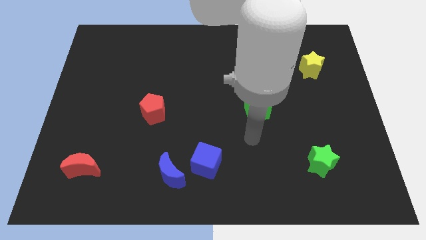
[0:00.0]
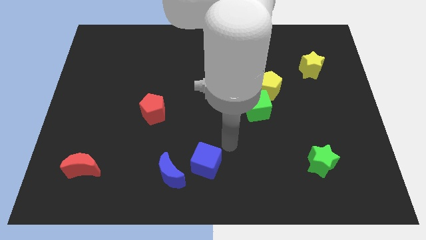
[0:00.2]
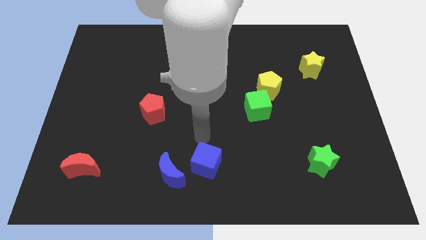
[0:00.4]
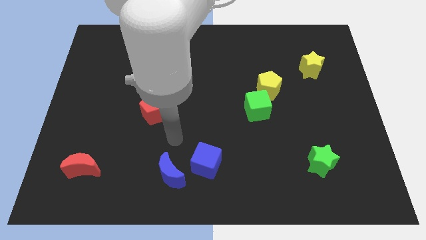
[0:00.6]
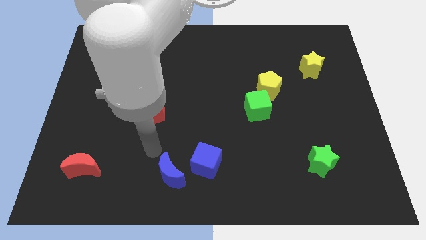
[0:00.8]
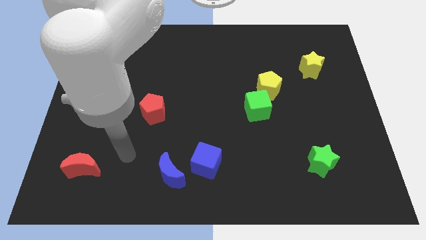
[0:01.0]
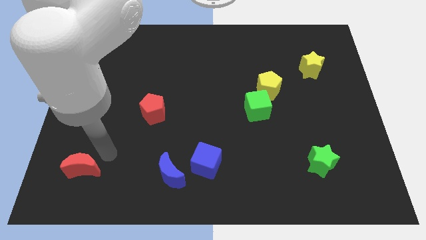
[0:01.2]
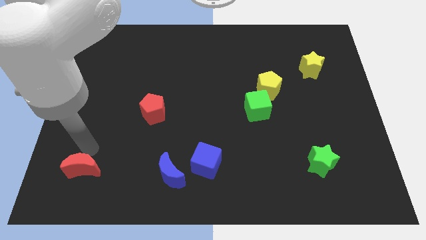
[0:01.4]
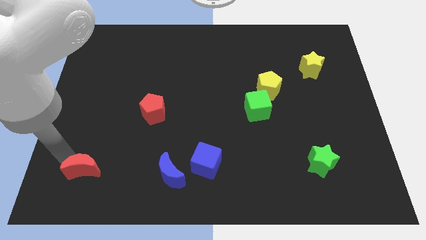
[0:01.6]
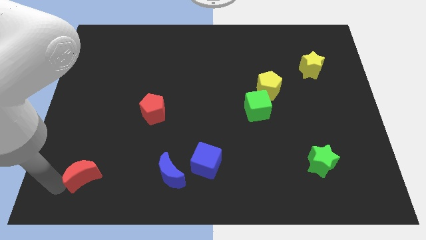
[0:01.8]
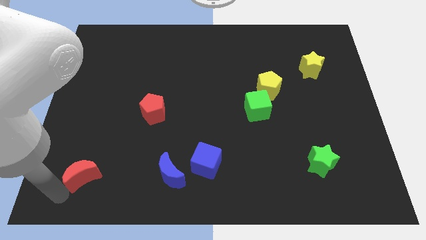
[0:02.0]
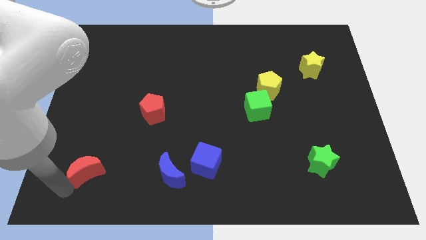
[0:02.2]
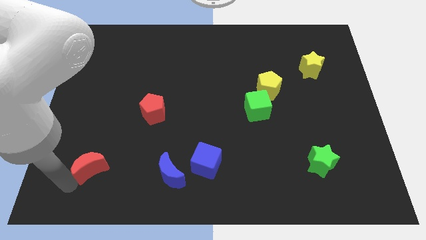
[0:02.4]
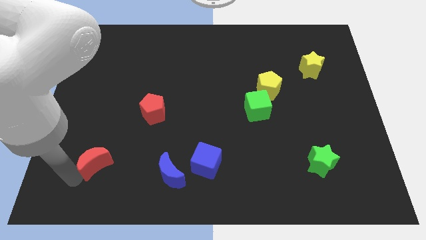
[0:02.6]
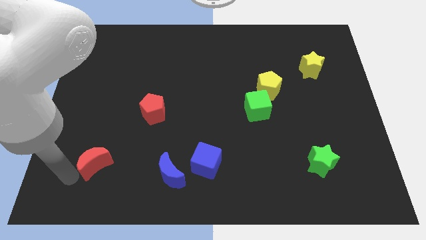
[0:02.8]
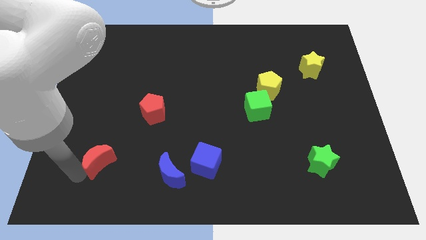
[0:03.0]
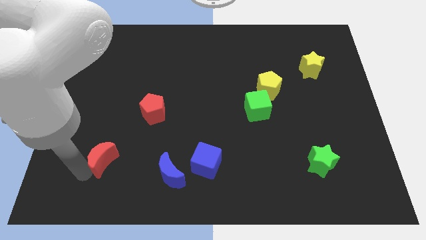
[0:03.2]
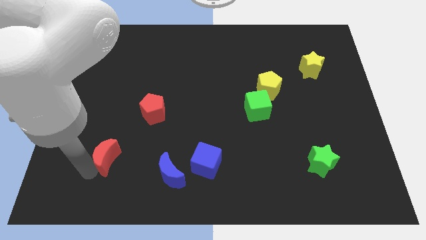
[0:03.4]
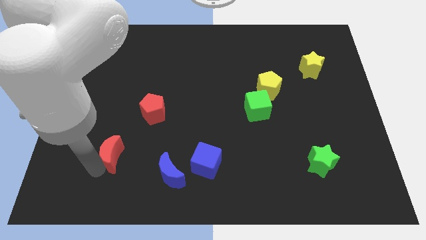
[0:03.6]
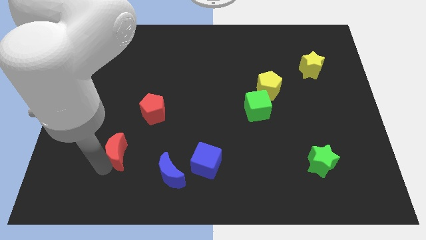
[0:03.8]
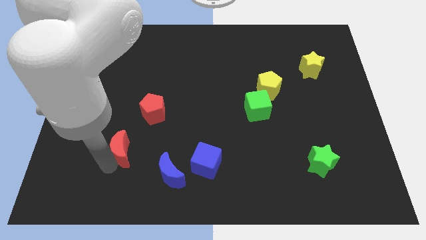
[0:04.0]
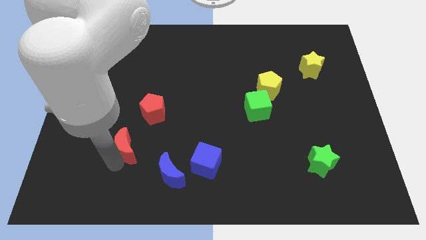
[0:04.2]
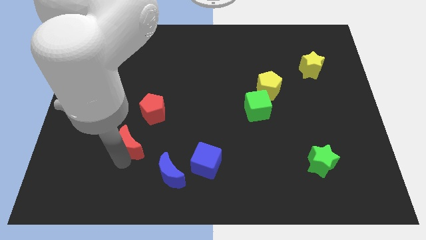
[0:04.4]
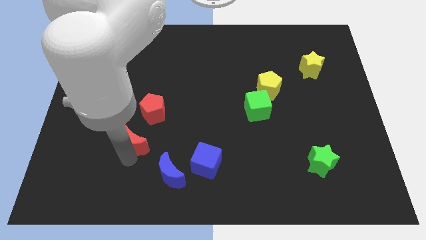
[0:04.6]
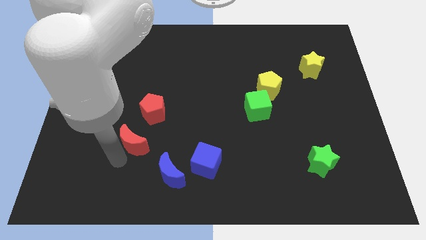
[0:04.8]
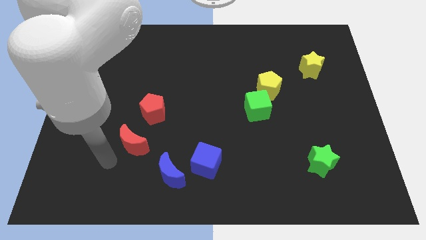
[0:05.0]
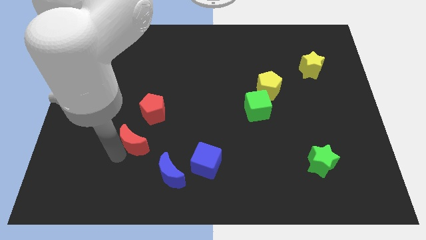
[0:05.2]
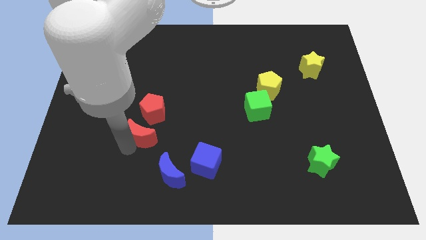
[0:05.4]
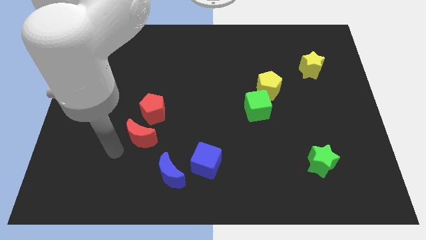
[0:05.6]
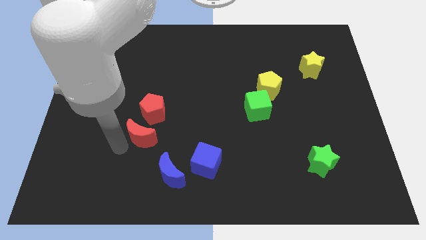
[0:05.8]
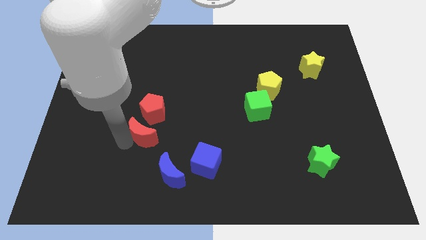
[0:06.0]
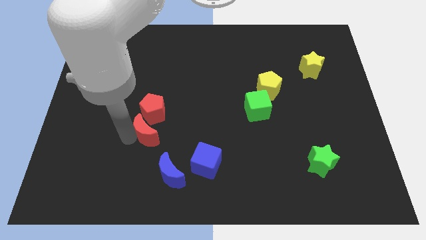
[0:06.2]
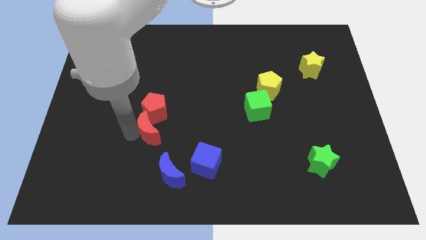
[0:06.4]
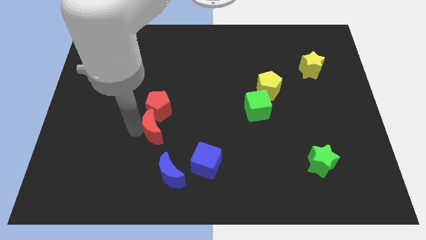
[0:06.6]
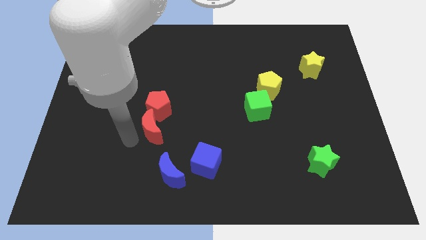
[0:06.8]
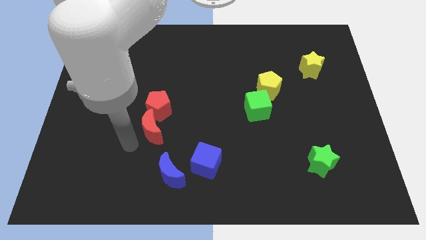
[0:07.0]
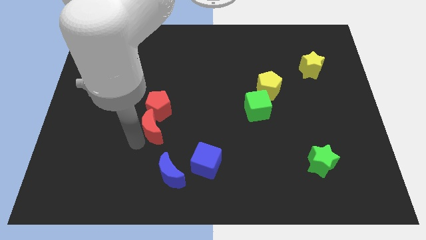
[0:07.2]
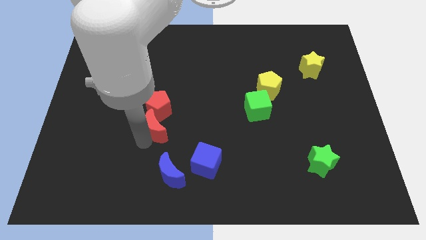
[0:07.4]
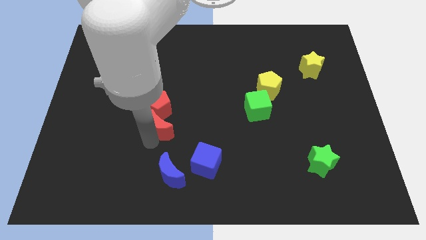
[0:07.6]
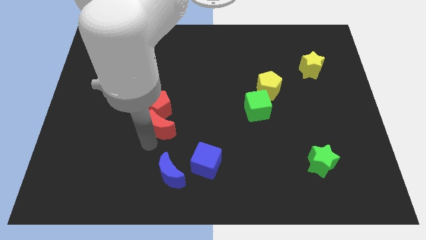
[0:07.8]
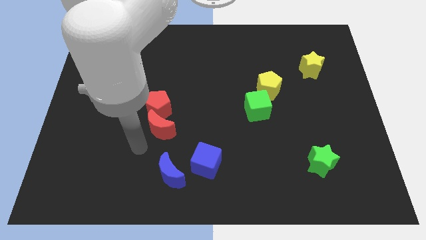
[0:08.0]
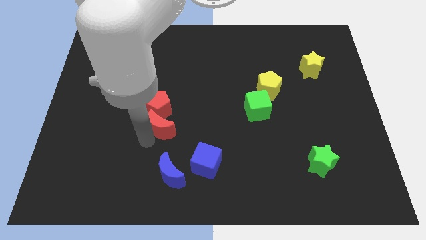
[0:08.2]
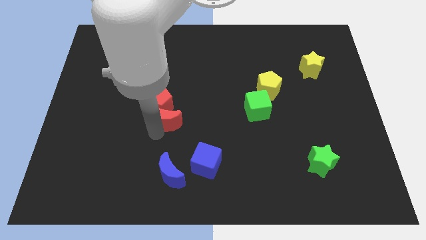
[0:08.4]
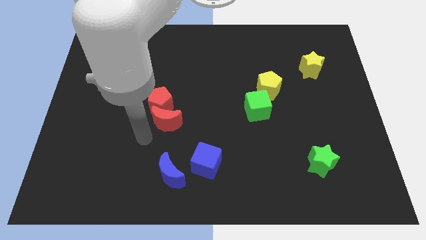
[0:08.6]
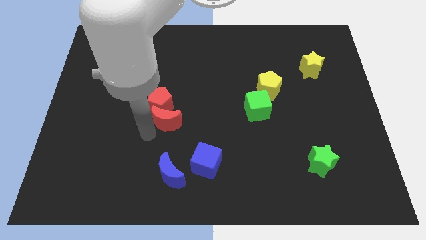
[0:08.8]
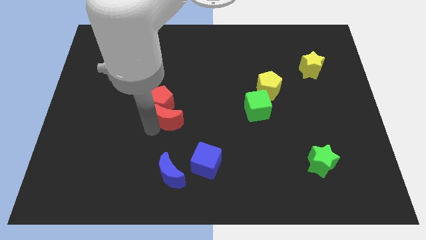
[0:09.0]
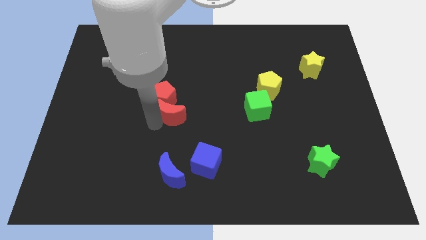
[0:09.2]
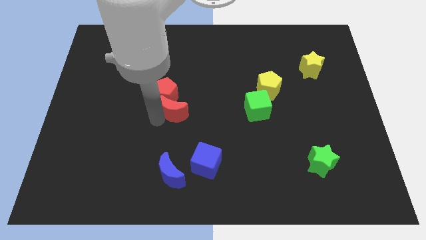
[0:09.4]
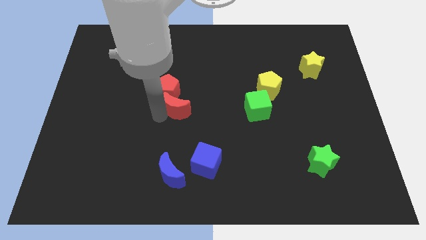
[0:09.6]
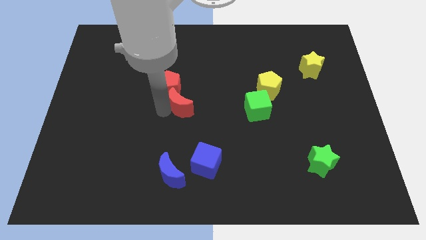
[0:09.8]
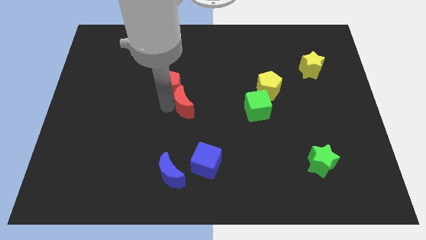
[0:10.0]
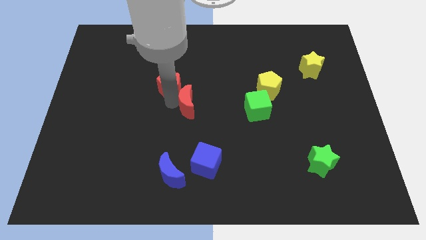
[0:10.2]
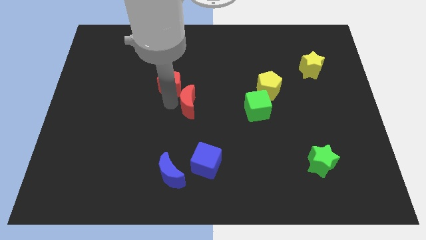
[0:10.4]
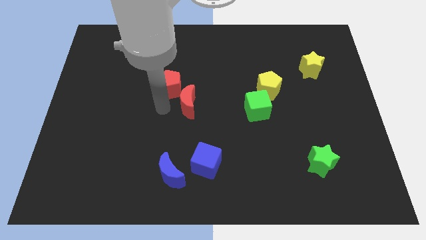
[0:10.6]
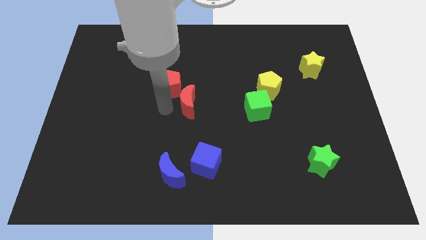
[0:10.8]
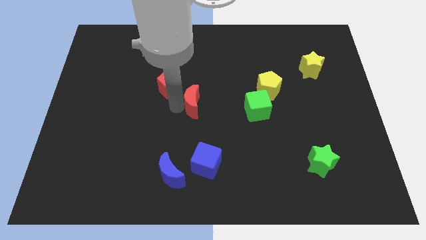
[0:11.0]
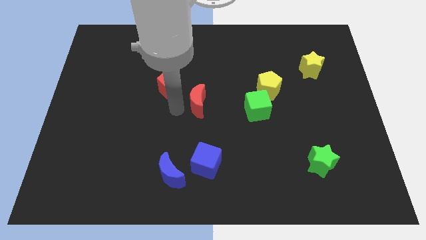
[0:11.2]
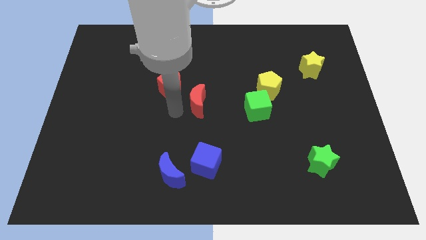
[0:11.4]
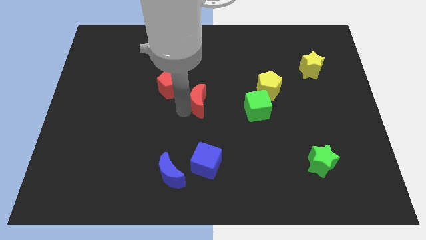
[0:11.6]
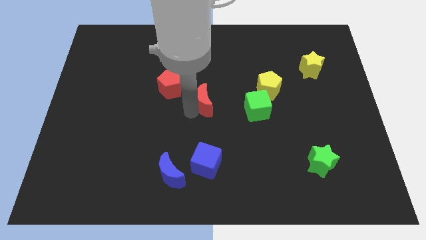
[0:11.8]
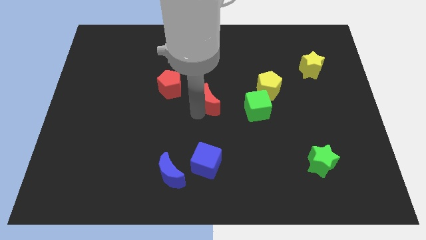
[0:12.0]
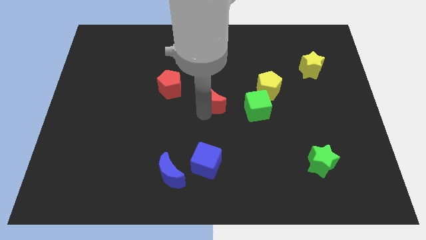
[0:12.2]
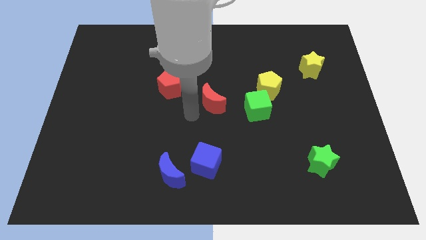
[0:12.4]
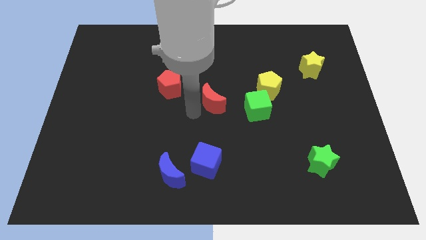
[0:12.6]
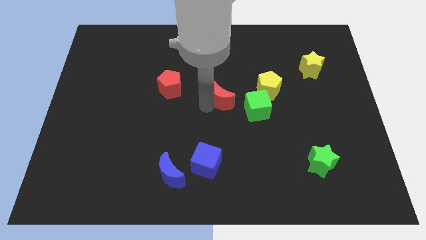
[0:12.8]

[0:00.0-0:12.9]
push the red moon diagonally up and to the left of the green cube
